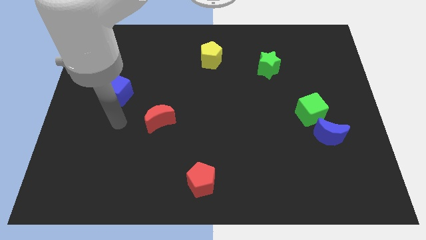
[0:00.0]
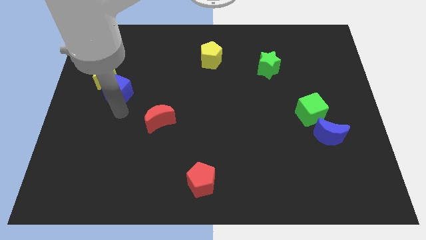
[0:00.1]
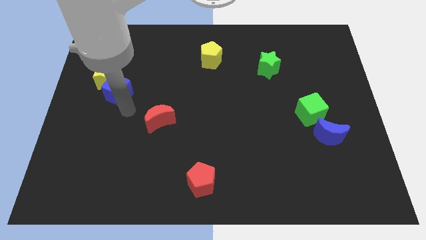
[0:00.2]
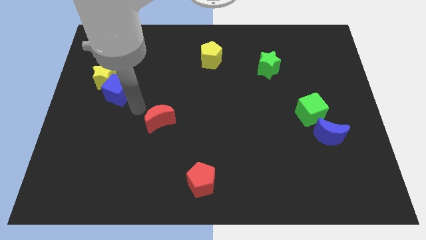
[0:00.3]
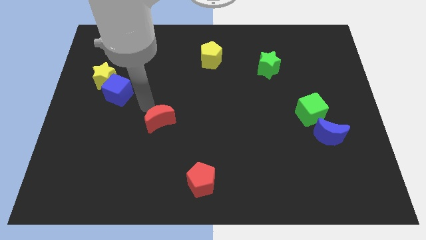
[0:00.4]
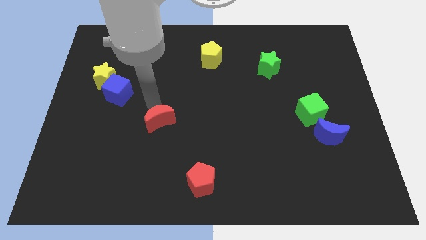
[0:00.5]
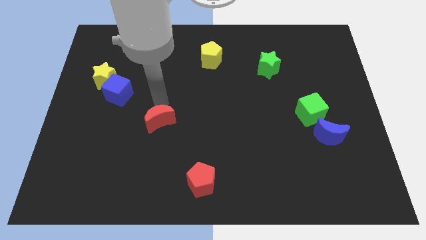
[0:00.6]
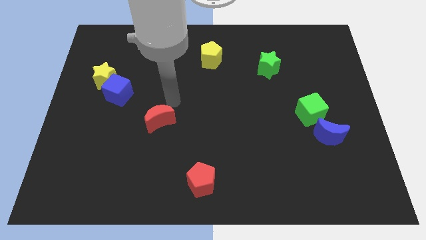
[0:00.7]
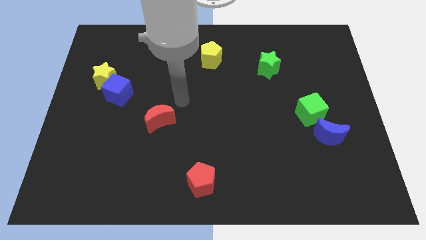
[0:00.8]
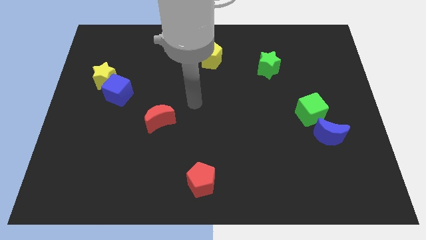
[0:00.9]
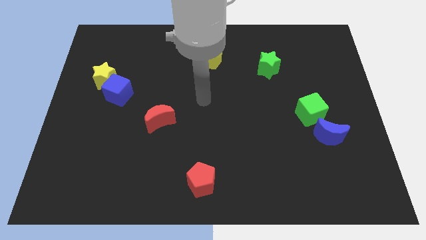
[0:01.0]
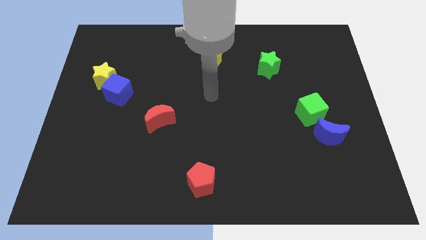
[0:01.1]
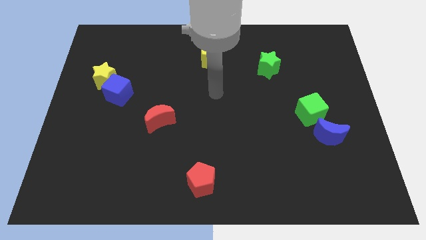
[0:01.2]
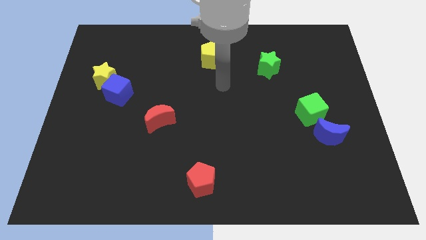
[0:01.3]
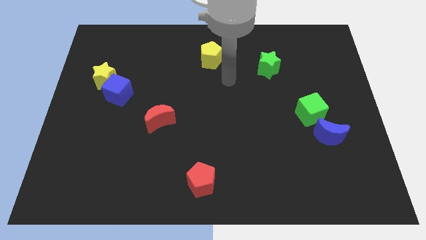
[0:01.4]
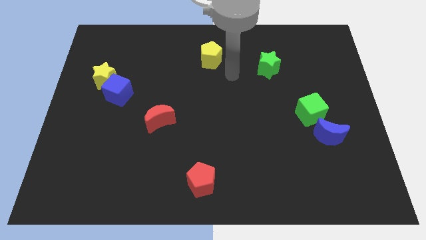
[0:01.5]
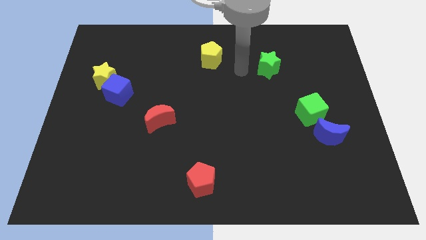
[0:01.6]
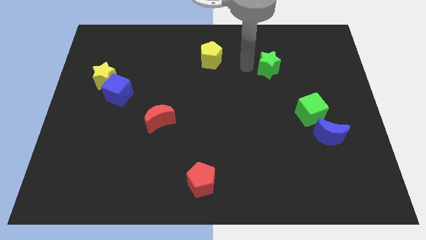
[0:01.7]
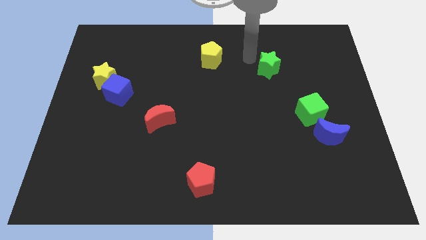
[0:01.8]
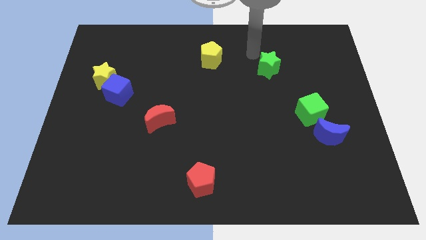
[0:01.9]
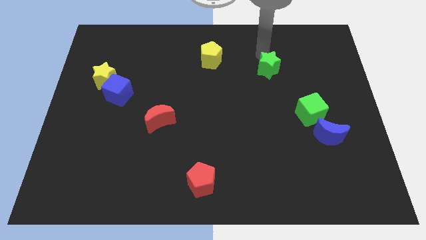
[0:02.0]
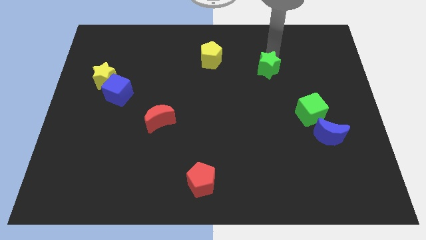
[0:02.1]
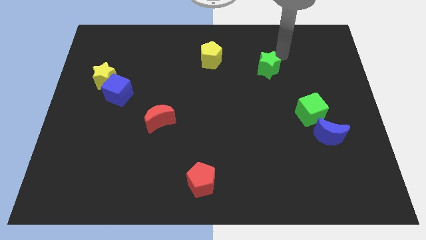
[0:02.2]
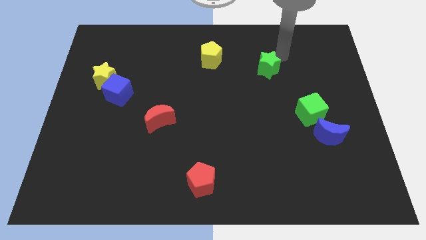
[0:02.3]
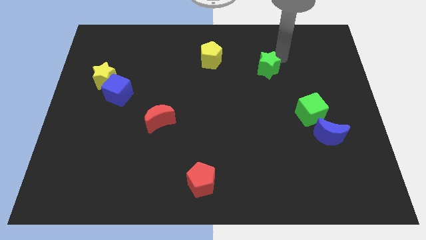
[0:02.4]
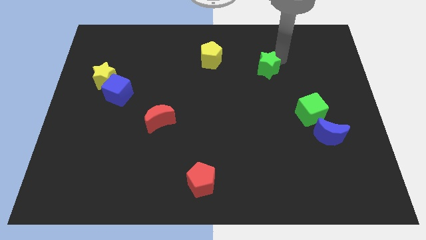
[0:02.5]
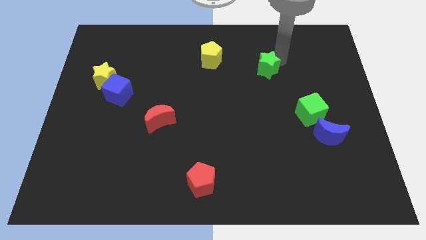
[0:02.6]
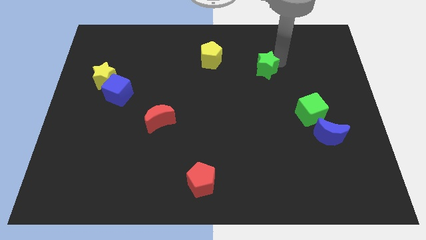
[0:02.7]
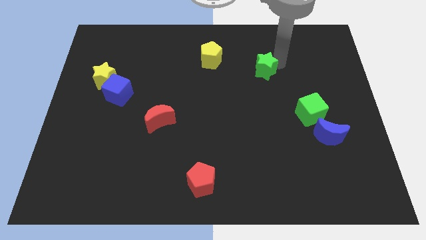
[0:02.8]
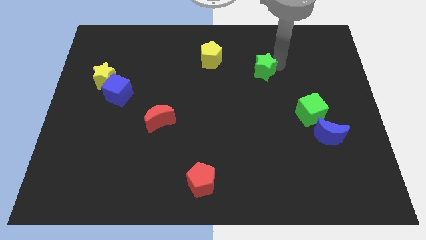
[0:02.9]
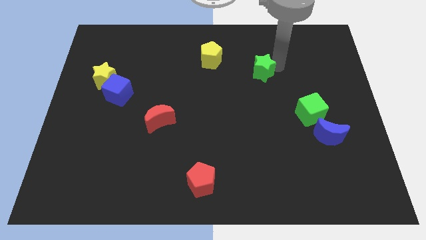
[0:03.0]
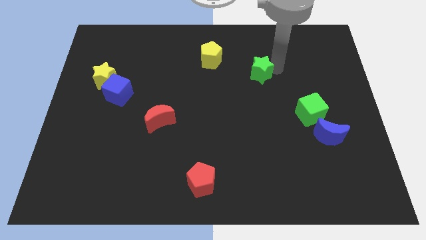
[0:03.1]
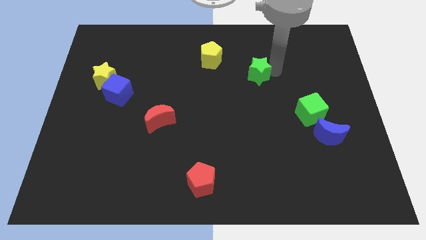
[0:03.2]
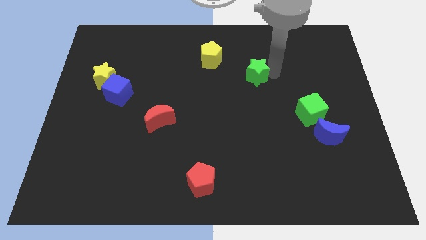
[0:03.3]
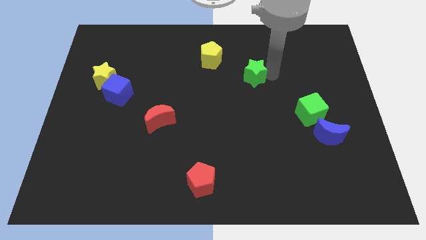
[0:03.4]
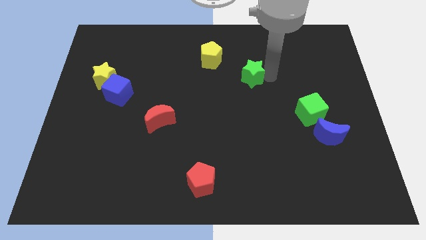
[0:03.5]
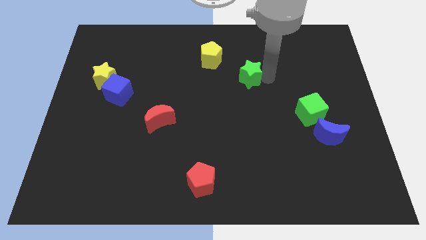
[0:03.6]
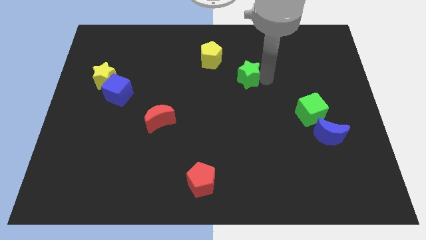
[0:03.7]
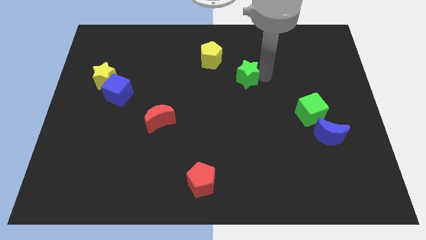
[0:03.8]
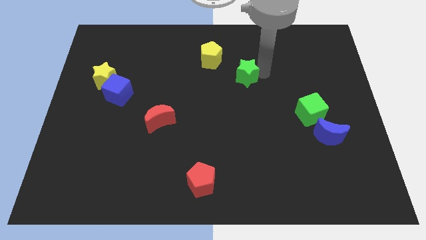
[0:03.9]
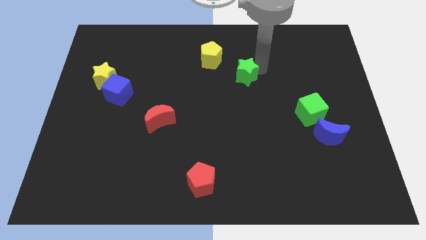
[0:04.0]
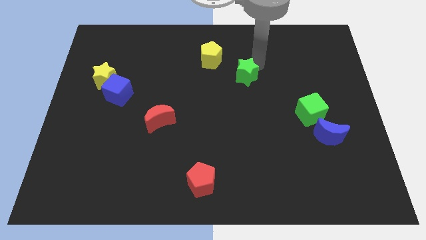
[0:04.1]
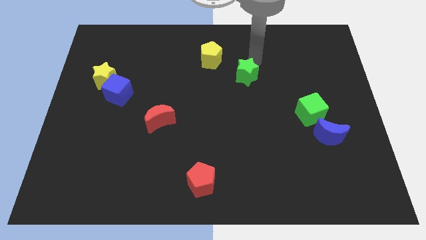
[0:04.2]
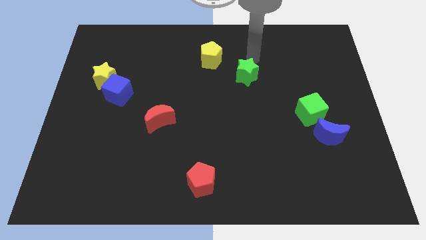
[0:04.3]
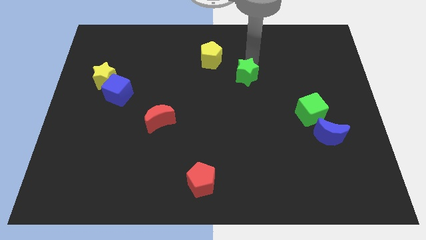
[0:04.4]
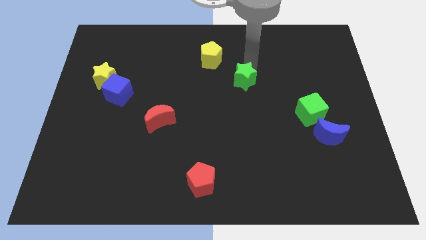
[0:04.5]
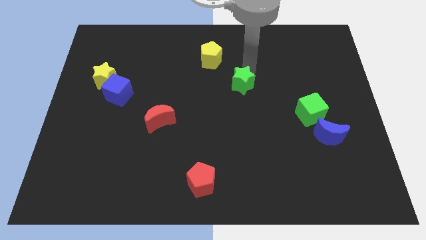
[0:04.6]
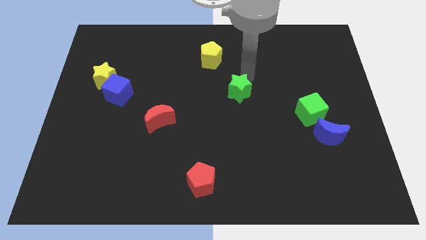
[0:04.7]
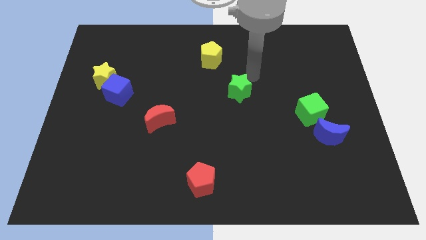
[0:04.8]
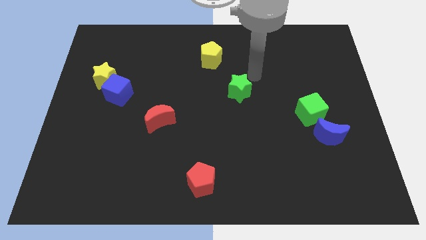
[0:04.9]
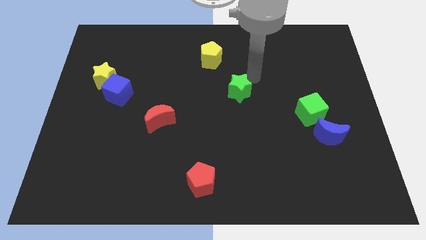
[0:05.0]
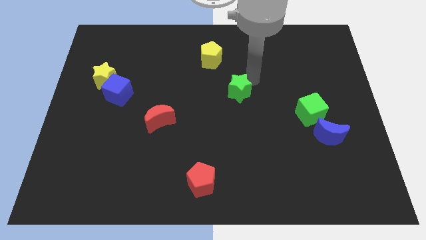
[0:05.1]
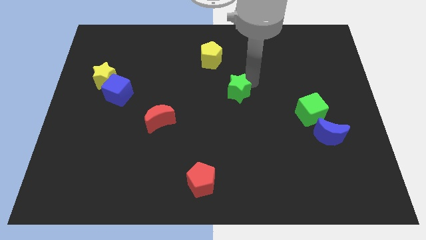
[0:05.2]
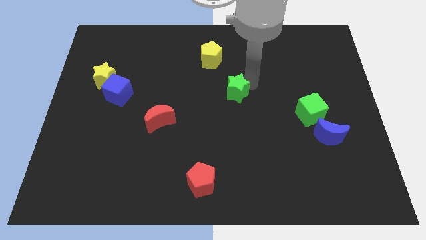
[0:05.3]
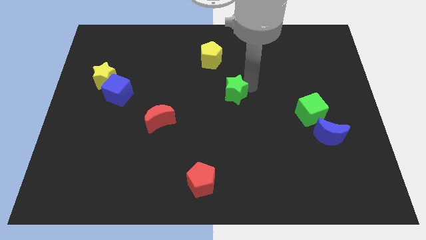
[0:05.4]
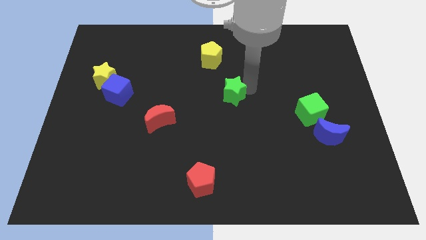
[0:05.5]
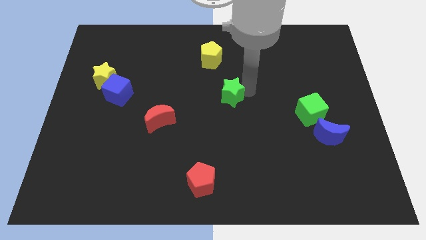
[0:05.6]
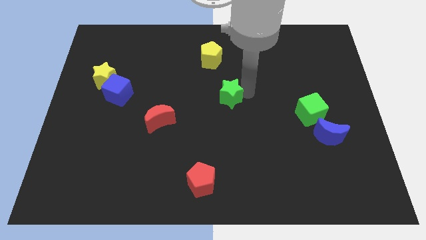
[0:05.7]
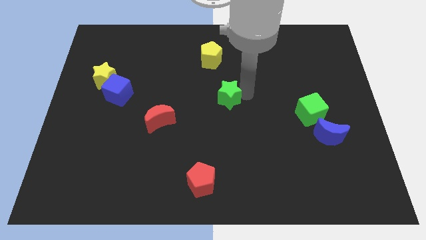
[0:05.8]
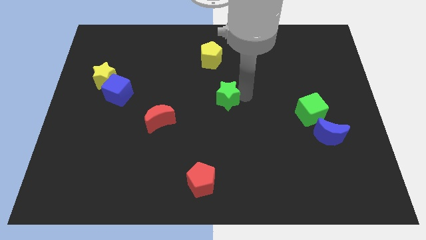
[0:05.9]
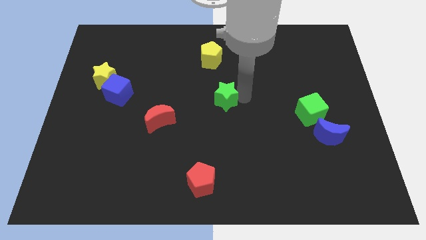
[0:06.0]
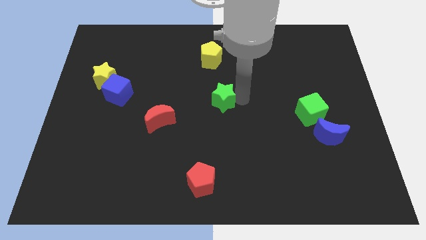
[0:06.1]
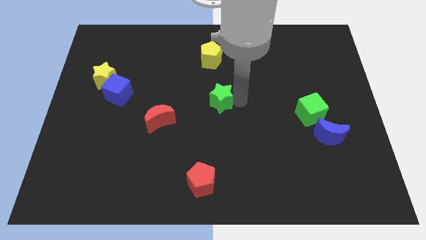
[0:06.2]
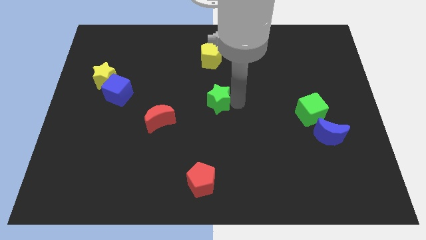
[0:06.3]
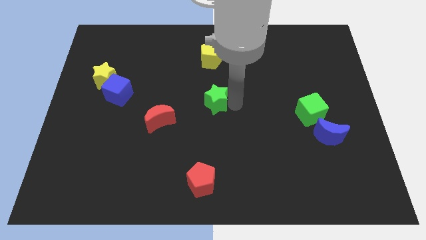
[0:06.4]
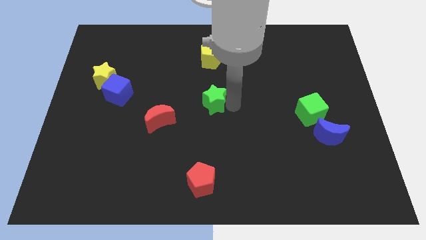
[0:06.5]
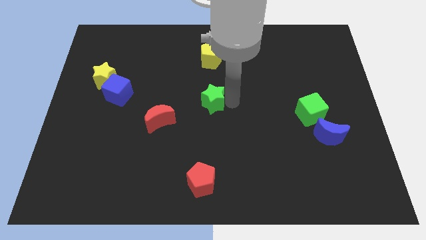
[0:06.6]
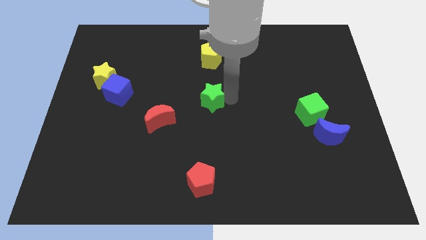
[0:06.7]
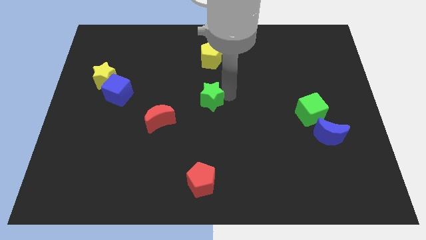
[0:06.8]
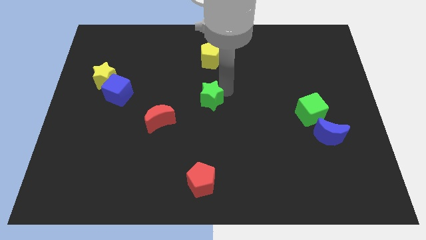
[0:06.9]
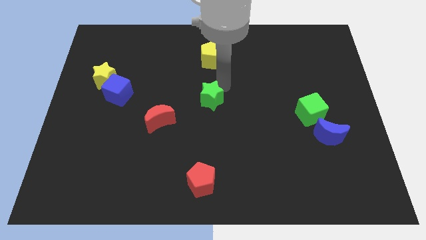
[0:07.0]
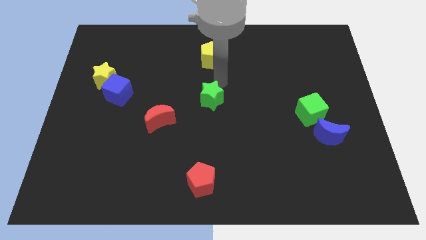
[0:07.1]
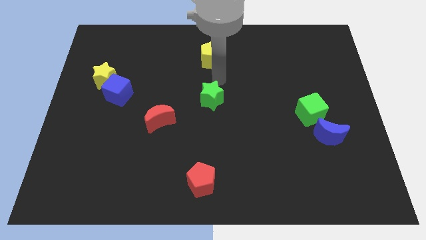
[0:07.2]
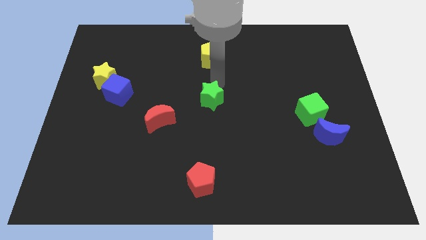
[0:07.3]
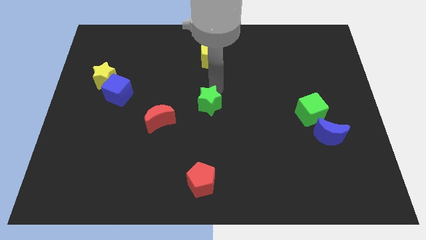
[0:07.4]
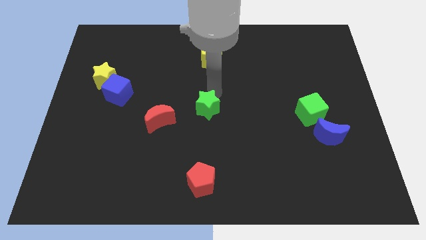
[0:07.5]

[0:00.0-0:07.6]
slide the green star down and then to the left

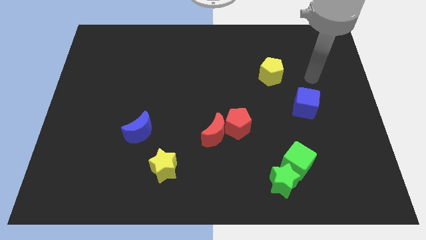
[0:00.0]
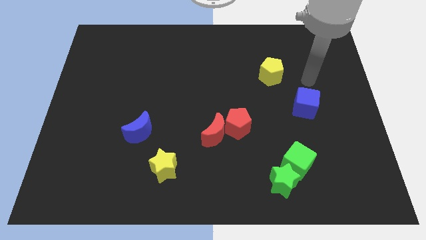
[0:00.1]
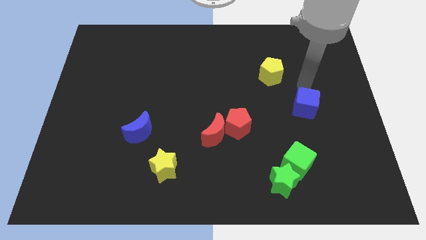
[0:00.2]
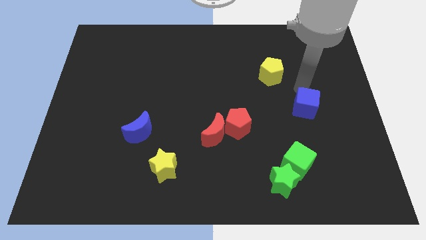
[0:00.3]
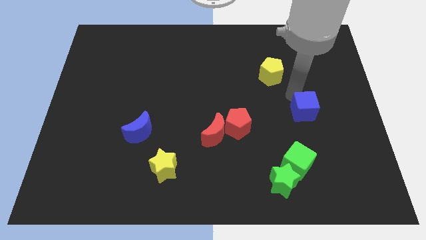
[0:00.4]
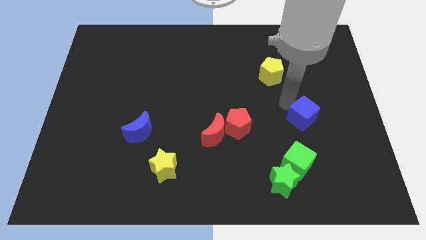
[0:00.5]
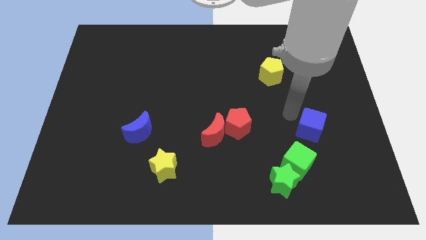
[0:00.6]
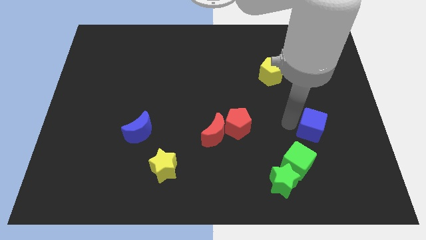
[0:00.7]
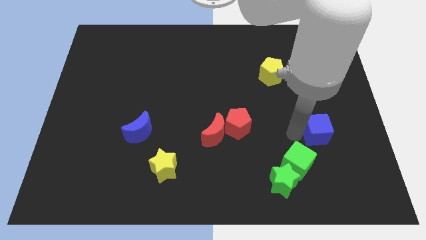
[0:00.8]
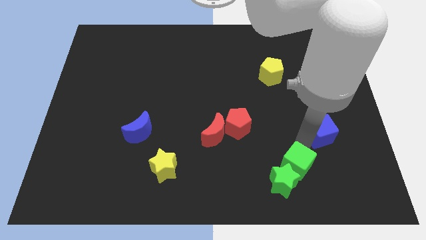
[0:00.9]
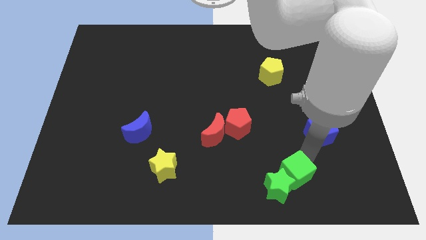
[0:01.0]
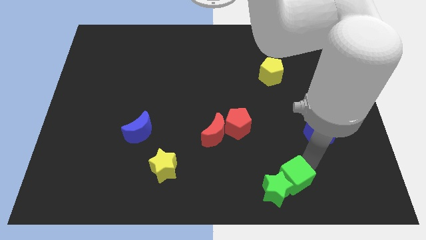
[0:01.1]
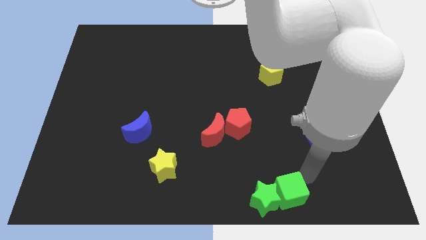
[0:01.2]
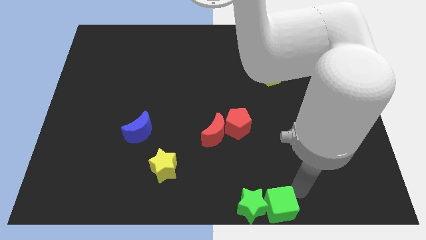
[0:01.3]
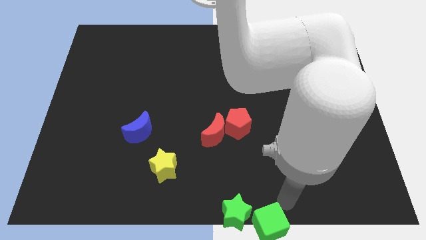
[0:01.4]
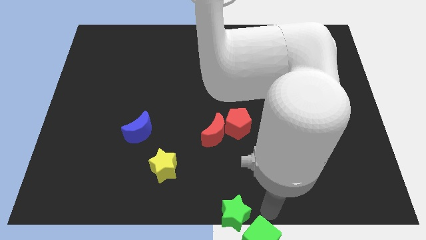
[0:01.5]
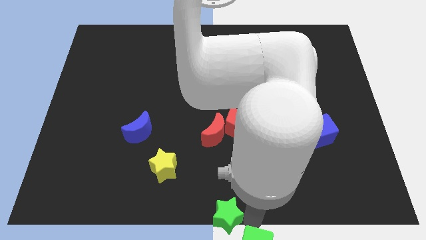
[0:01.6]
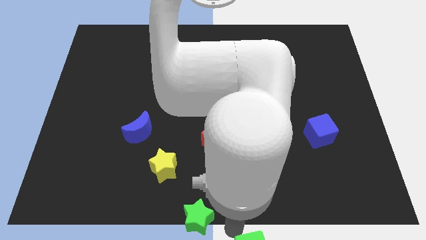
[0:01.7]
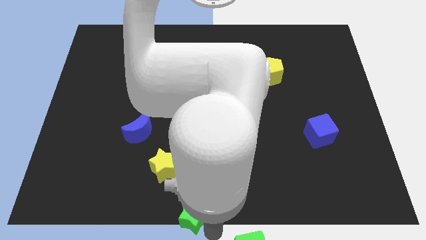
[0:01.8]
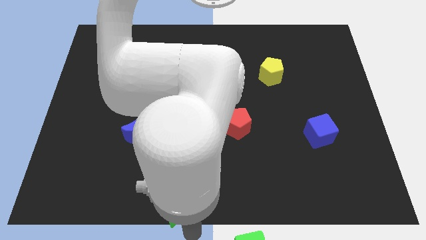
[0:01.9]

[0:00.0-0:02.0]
move the green star left
